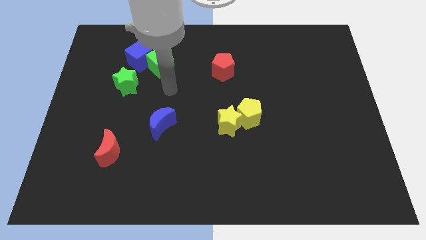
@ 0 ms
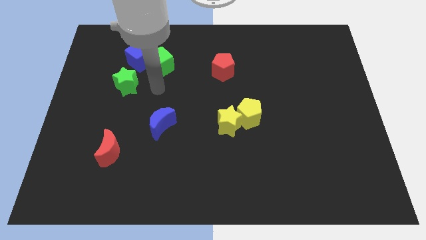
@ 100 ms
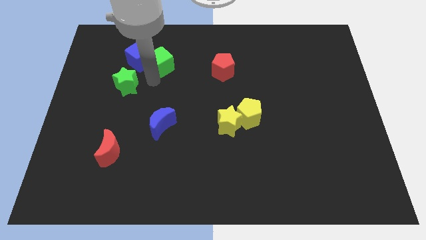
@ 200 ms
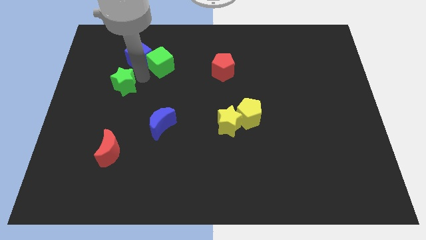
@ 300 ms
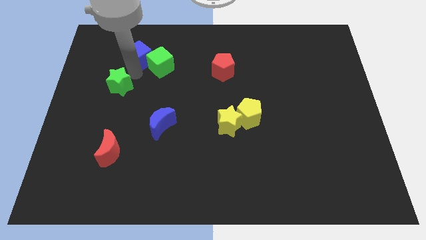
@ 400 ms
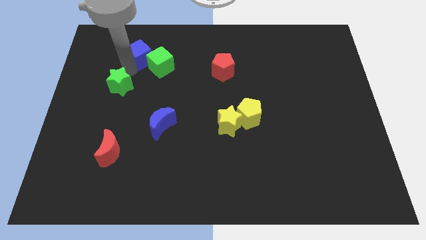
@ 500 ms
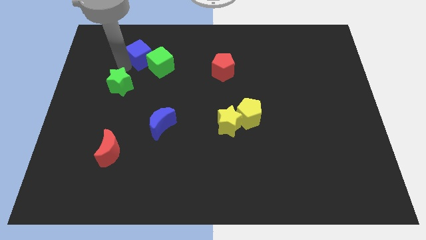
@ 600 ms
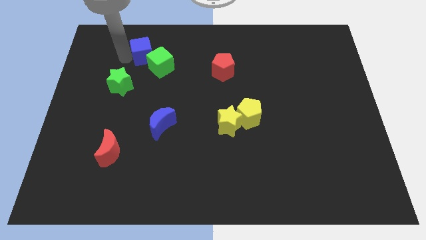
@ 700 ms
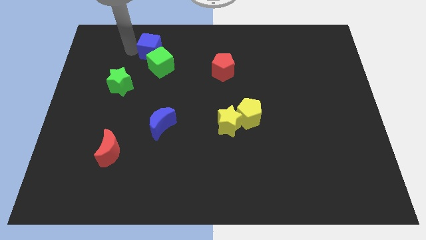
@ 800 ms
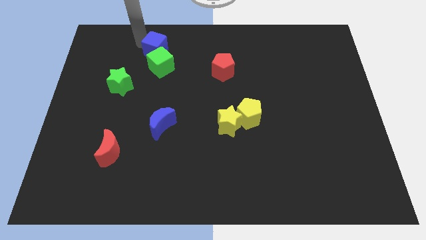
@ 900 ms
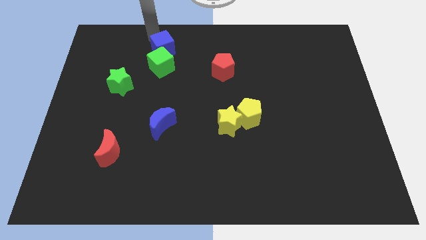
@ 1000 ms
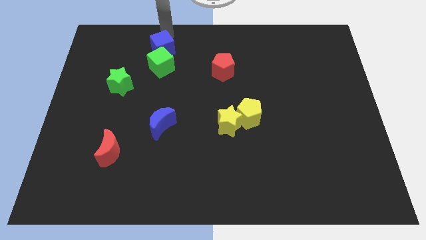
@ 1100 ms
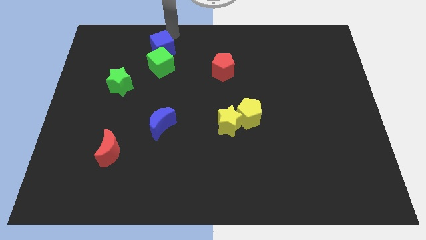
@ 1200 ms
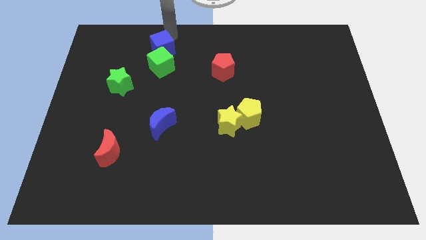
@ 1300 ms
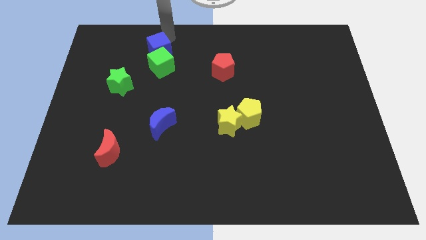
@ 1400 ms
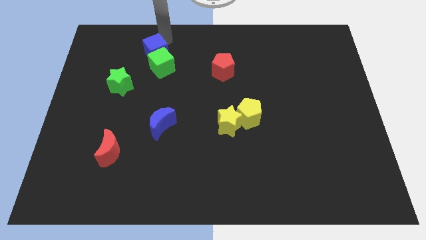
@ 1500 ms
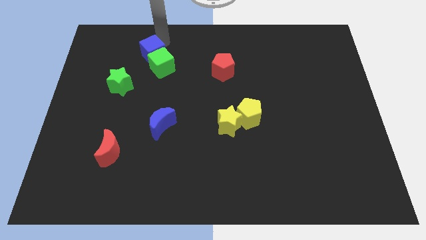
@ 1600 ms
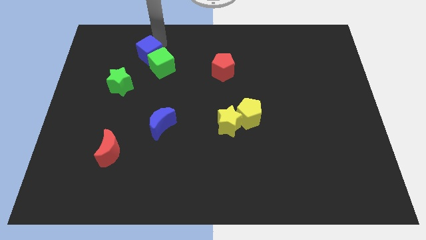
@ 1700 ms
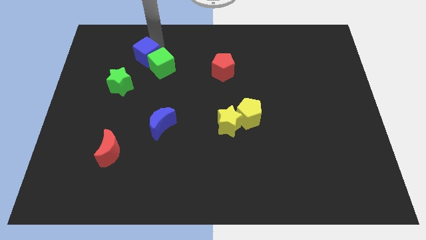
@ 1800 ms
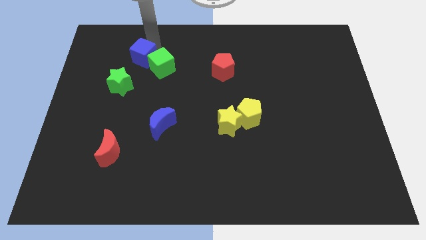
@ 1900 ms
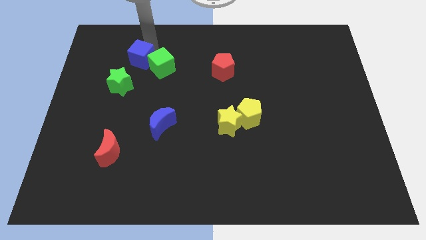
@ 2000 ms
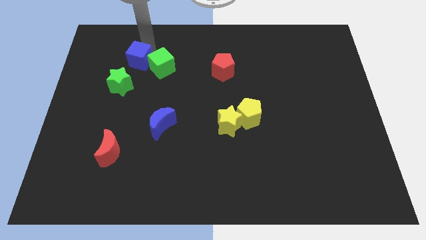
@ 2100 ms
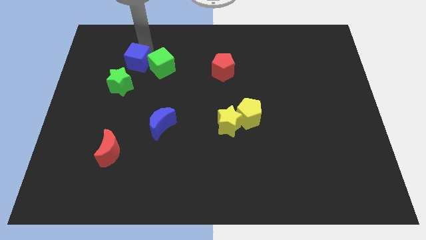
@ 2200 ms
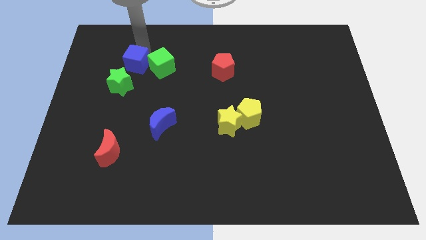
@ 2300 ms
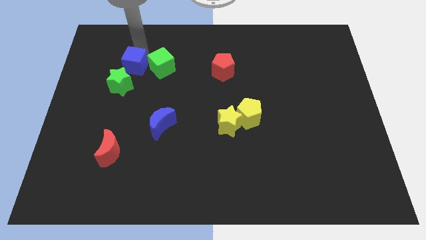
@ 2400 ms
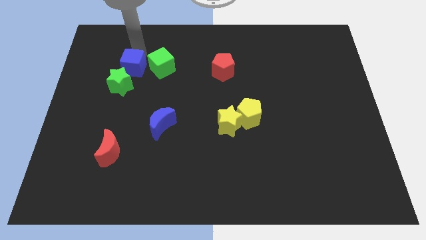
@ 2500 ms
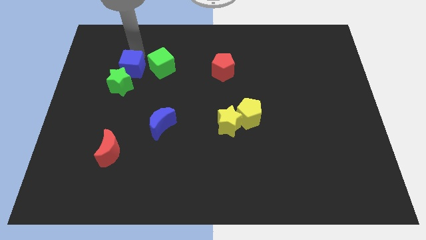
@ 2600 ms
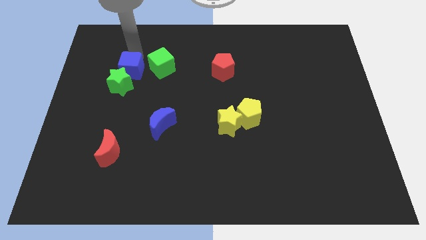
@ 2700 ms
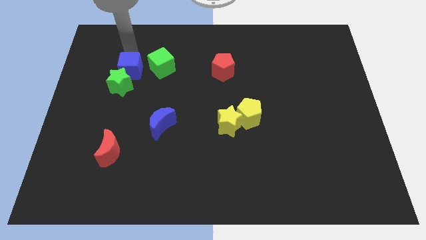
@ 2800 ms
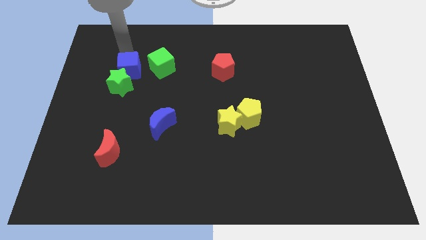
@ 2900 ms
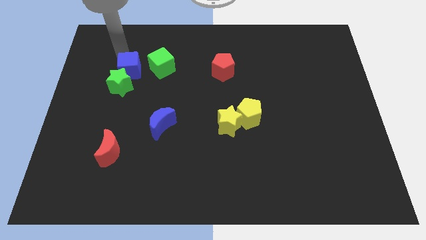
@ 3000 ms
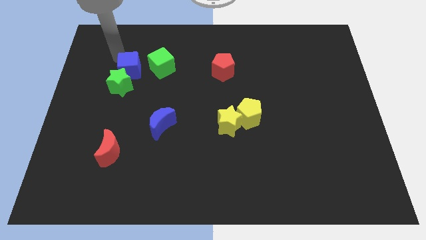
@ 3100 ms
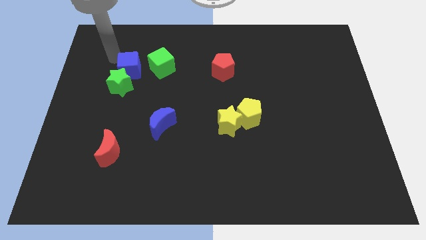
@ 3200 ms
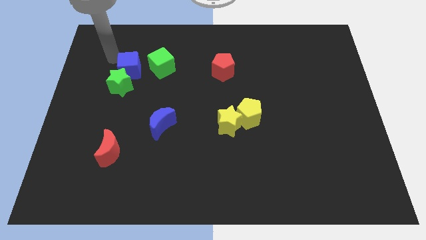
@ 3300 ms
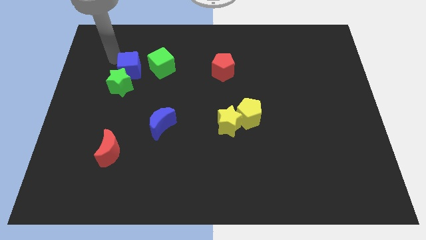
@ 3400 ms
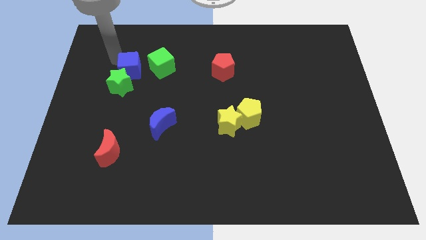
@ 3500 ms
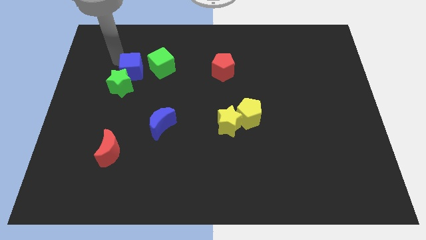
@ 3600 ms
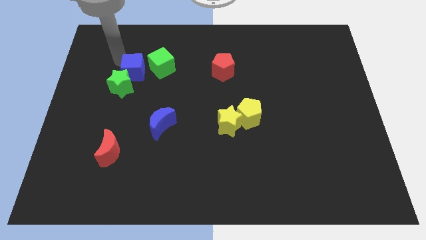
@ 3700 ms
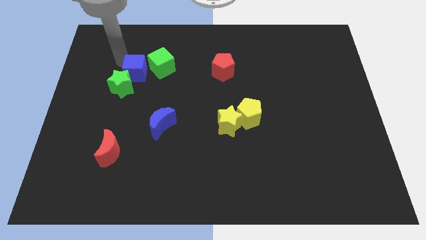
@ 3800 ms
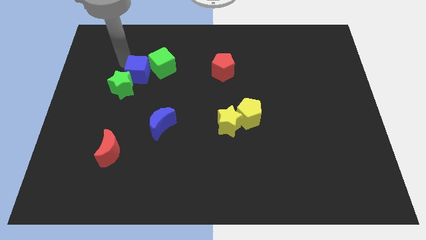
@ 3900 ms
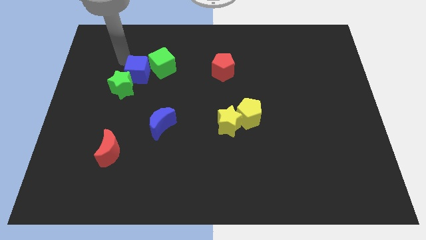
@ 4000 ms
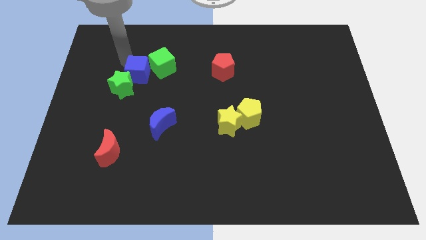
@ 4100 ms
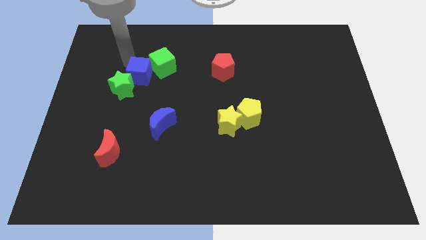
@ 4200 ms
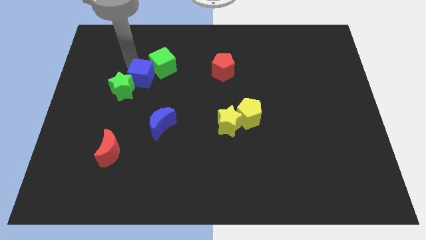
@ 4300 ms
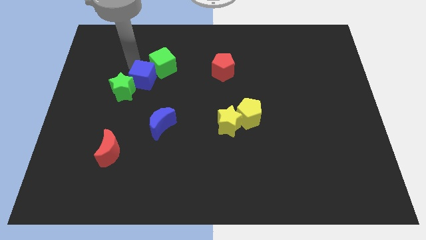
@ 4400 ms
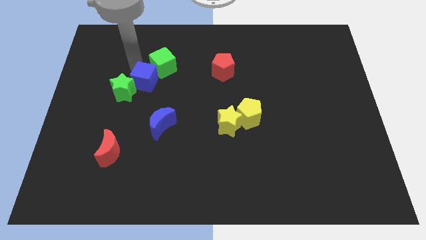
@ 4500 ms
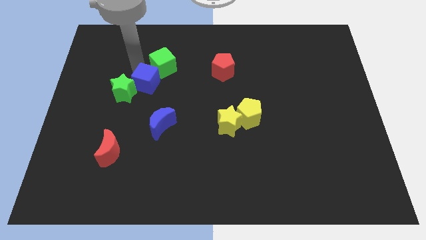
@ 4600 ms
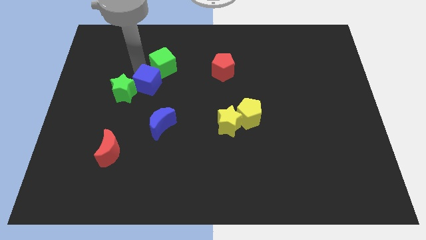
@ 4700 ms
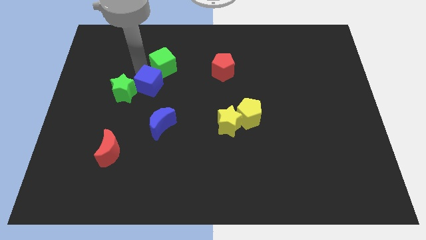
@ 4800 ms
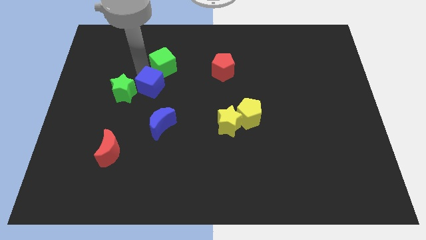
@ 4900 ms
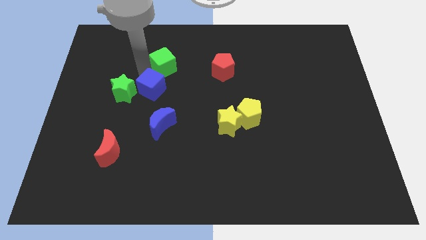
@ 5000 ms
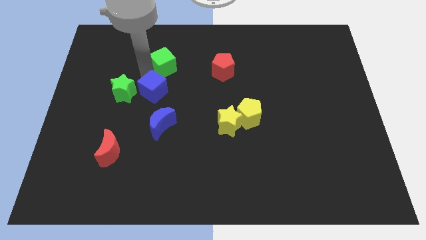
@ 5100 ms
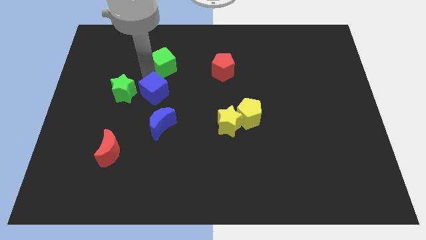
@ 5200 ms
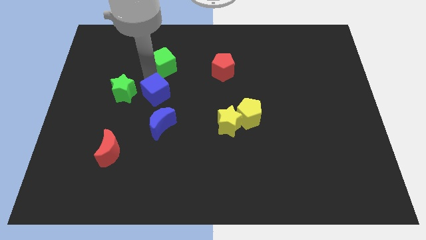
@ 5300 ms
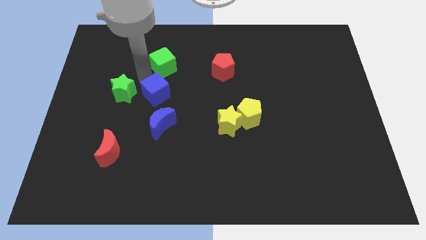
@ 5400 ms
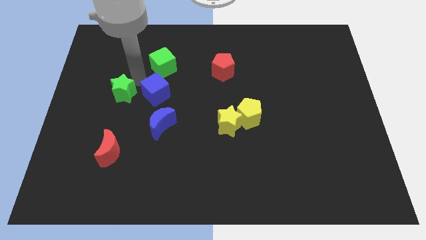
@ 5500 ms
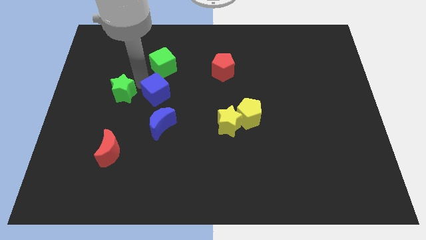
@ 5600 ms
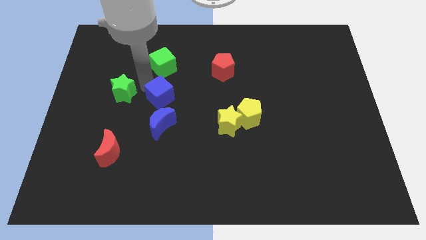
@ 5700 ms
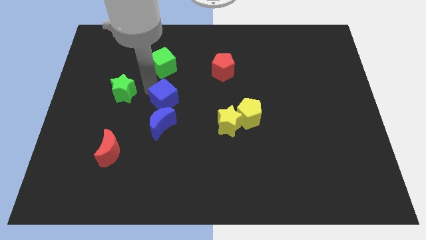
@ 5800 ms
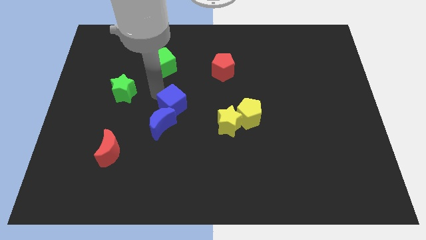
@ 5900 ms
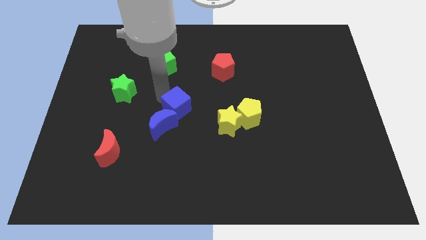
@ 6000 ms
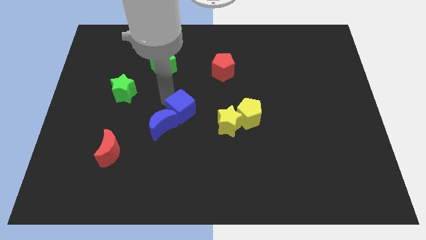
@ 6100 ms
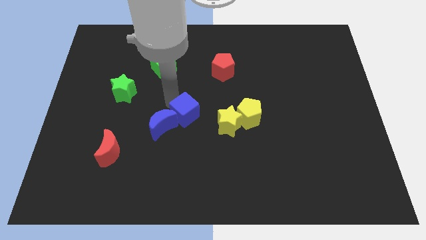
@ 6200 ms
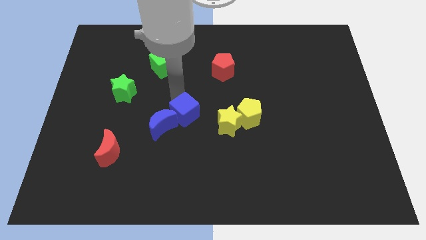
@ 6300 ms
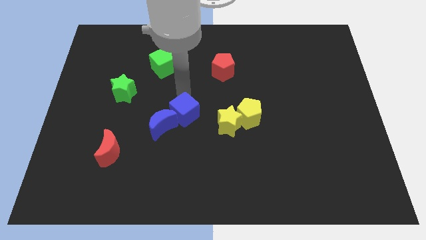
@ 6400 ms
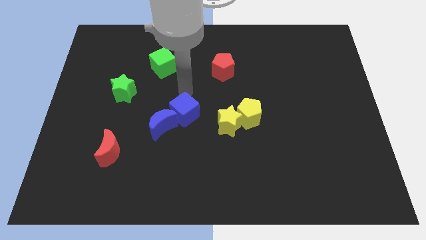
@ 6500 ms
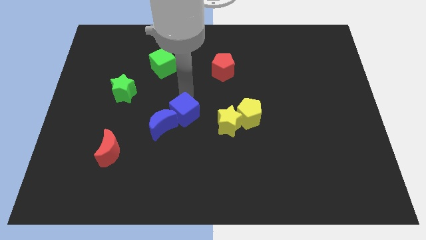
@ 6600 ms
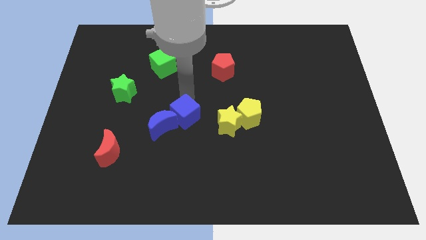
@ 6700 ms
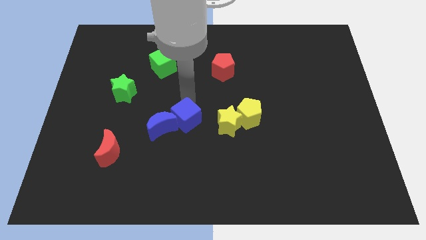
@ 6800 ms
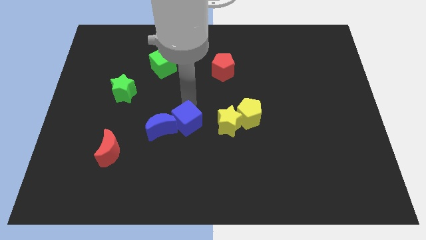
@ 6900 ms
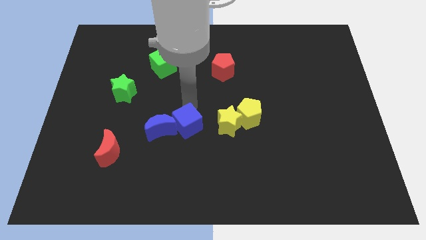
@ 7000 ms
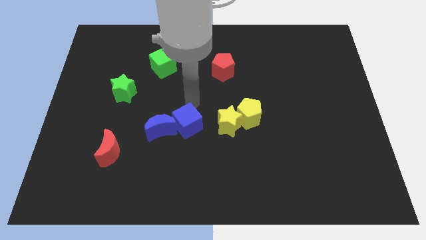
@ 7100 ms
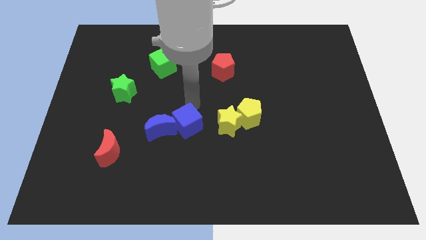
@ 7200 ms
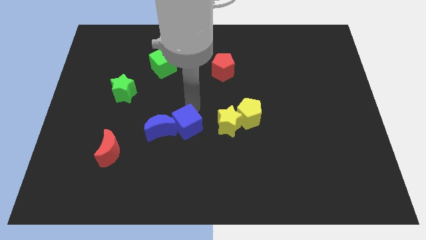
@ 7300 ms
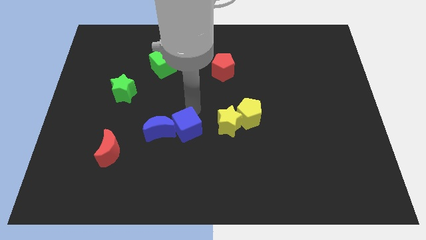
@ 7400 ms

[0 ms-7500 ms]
push the blue cube to the bottom right side of the blue moon
